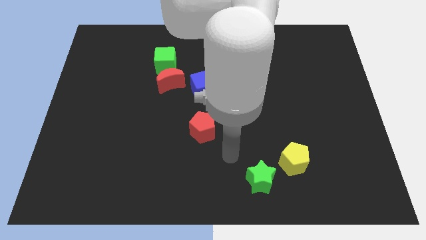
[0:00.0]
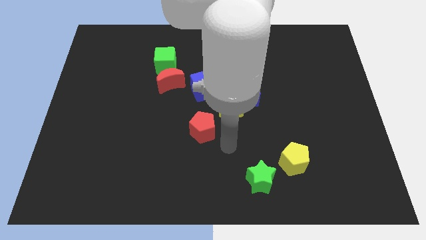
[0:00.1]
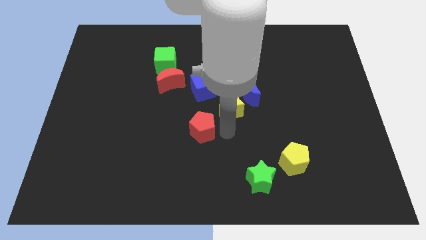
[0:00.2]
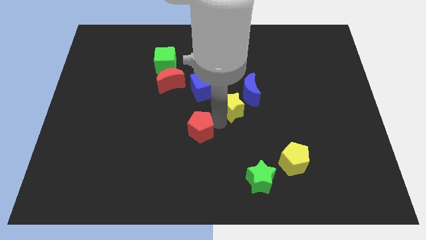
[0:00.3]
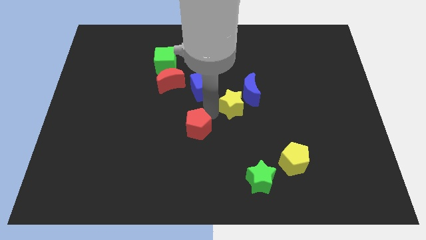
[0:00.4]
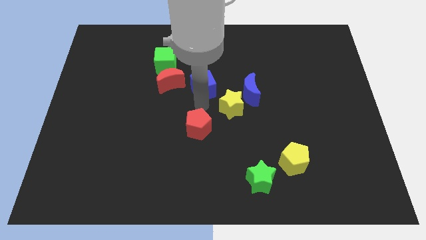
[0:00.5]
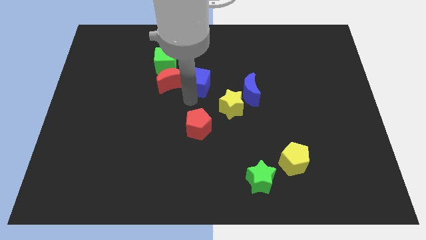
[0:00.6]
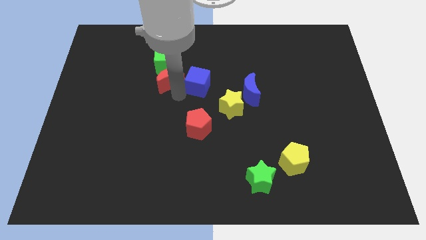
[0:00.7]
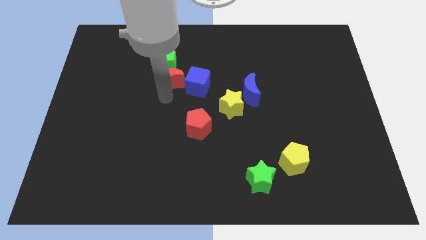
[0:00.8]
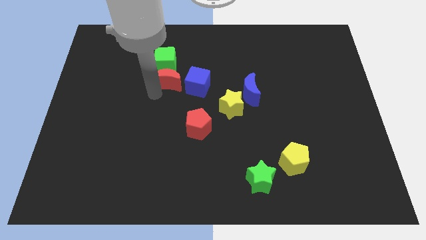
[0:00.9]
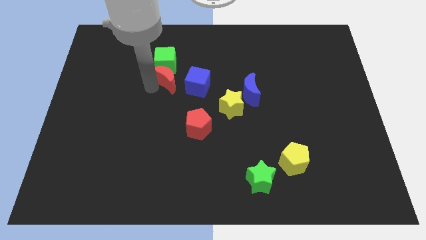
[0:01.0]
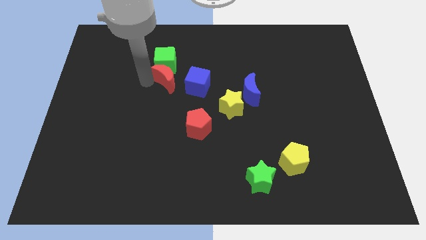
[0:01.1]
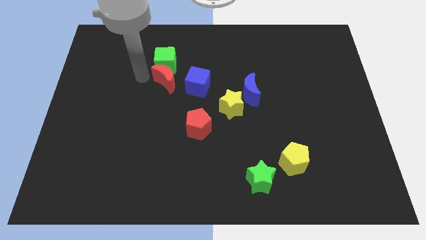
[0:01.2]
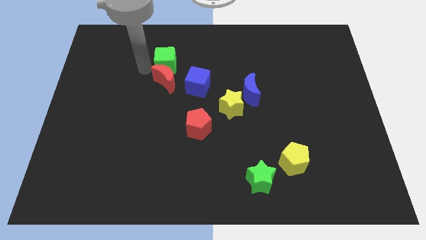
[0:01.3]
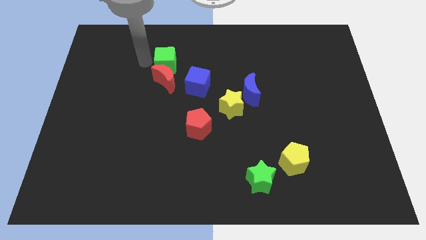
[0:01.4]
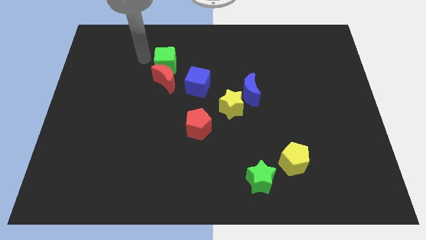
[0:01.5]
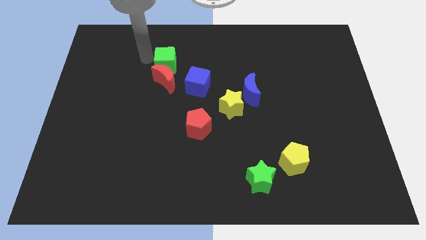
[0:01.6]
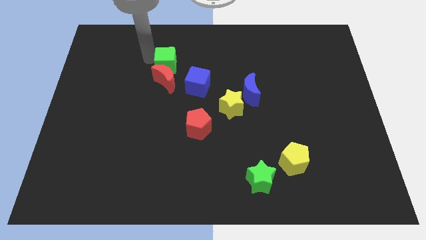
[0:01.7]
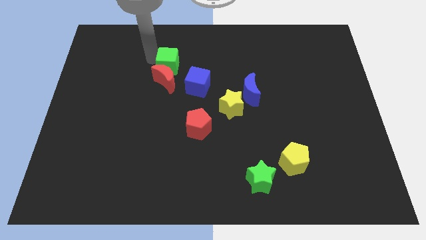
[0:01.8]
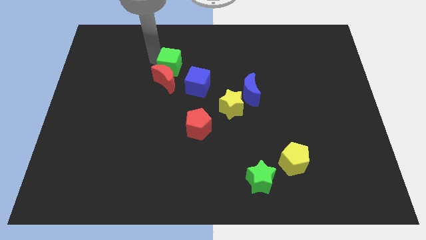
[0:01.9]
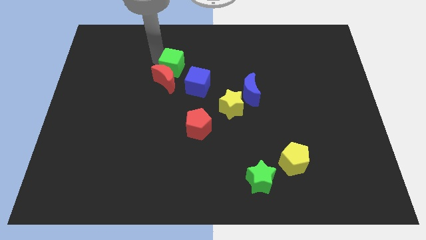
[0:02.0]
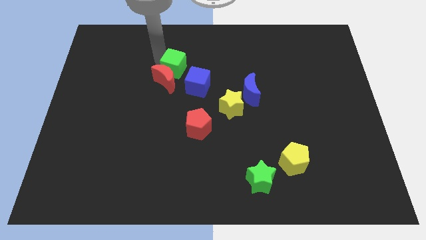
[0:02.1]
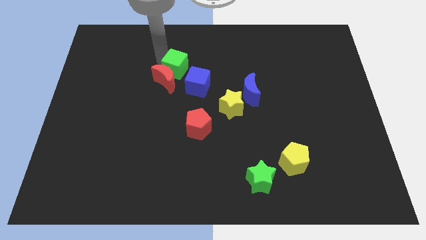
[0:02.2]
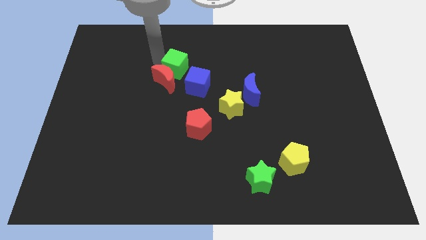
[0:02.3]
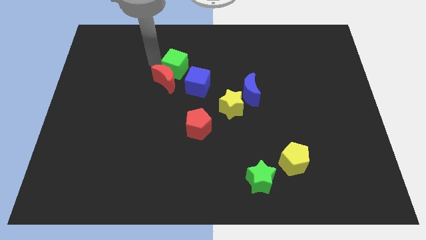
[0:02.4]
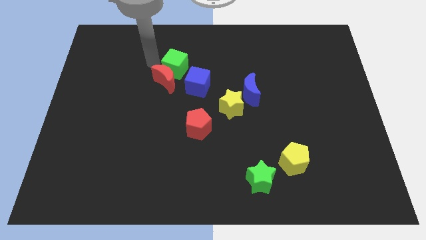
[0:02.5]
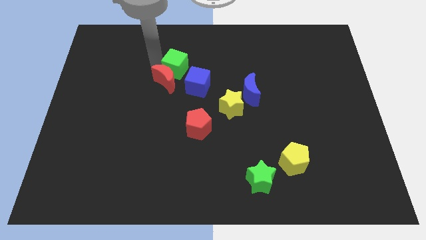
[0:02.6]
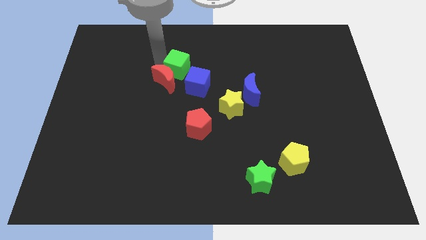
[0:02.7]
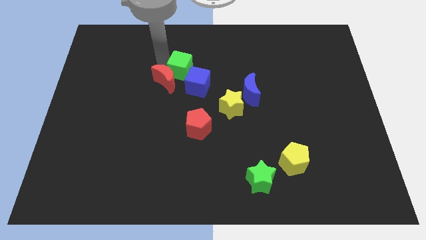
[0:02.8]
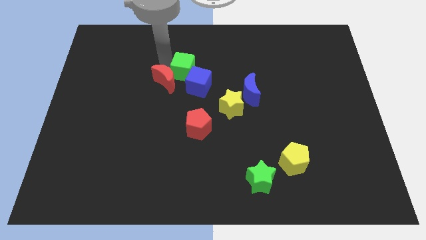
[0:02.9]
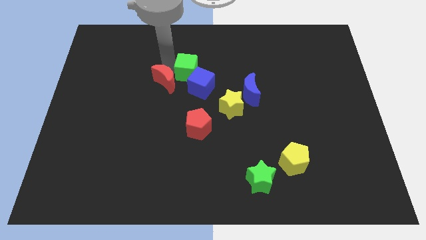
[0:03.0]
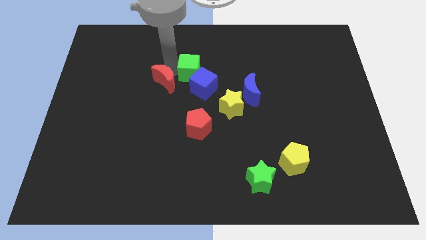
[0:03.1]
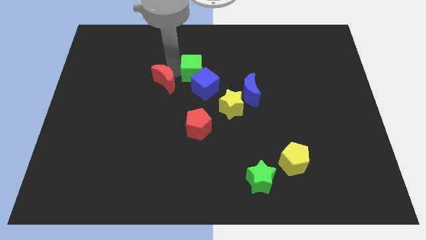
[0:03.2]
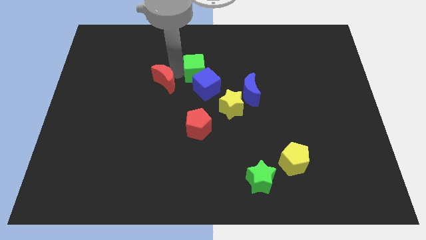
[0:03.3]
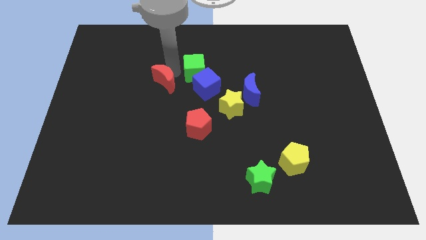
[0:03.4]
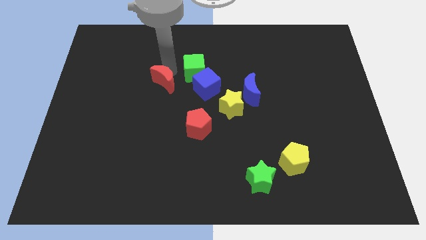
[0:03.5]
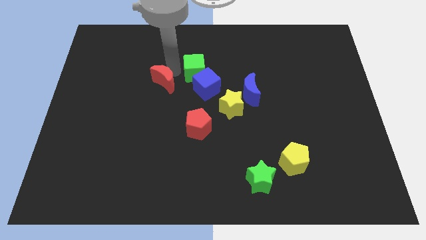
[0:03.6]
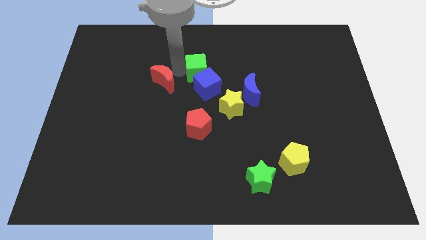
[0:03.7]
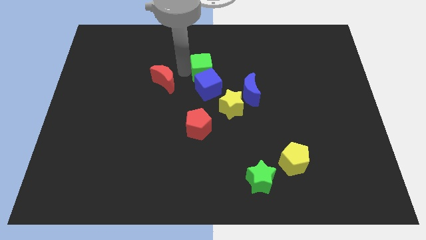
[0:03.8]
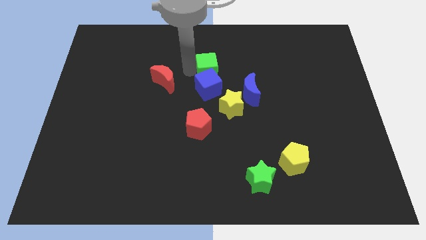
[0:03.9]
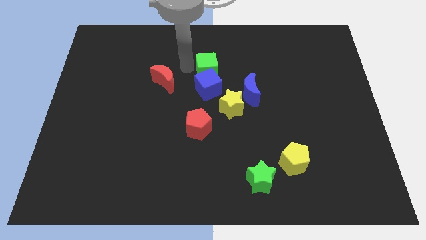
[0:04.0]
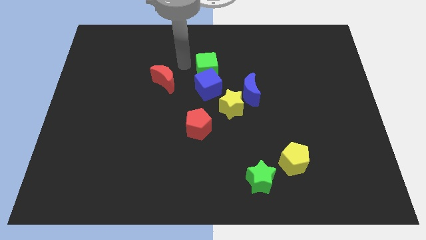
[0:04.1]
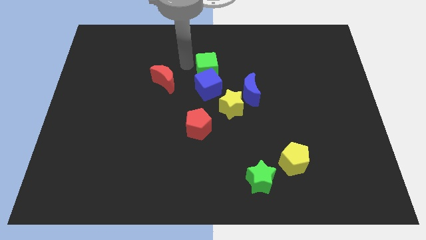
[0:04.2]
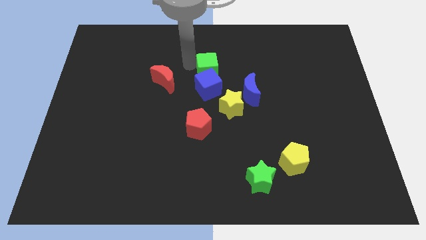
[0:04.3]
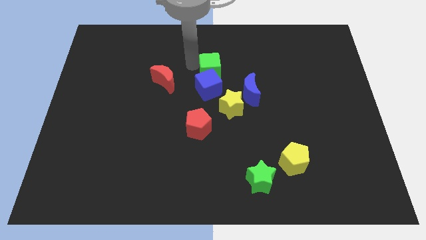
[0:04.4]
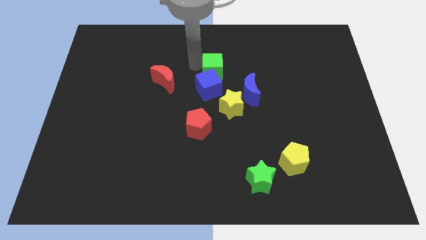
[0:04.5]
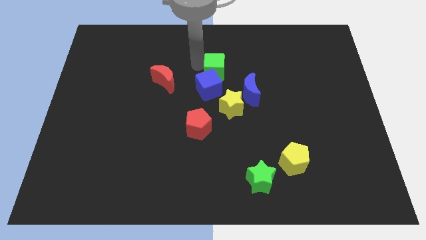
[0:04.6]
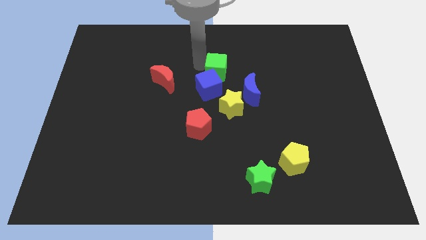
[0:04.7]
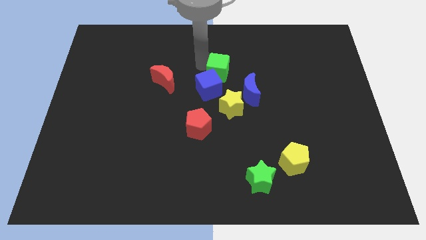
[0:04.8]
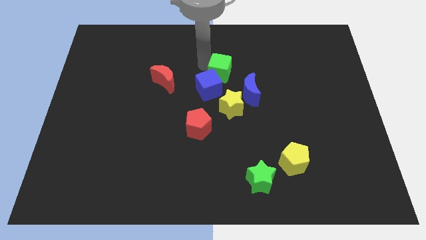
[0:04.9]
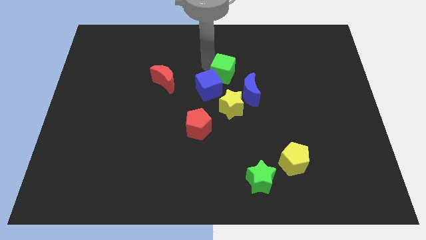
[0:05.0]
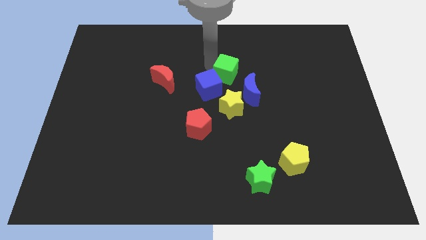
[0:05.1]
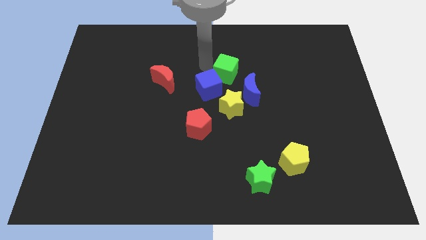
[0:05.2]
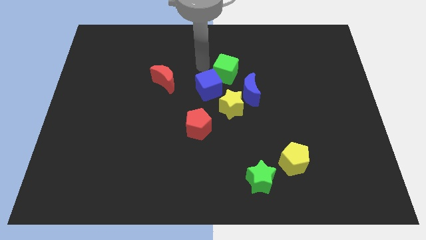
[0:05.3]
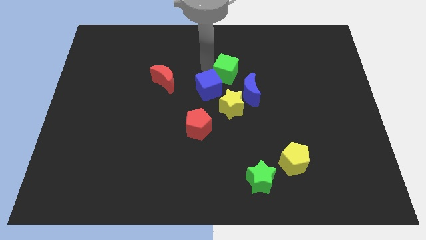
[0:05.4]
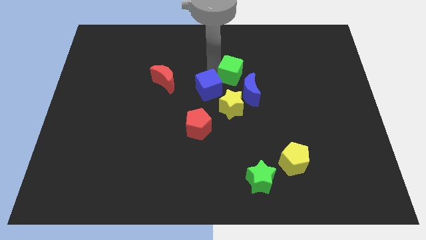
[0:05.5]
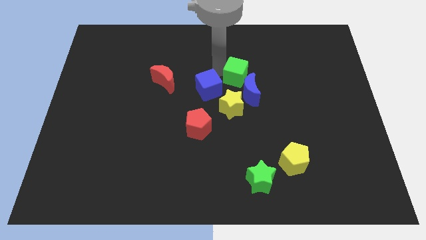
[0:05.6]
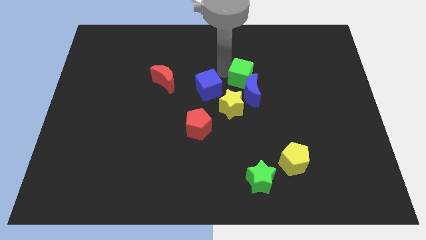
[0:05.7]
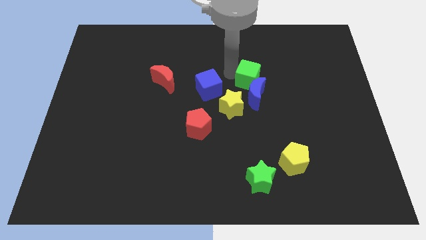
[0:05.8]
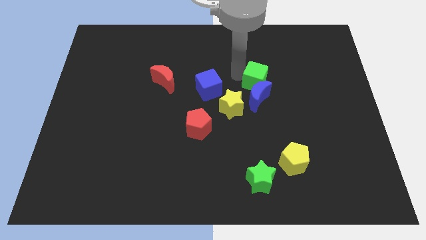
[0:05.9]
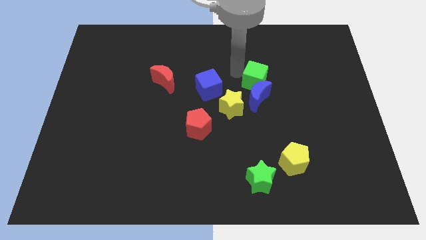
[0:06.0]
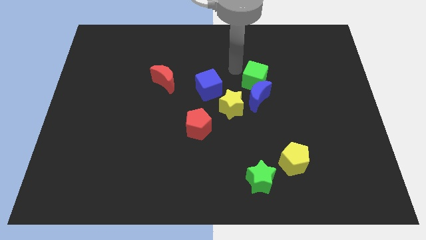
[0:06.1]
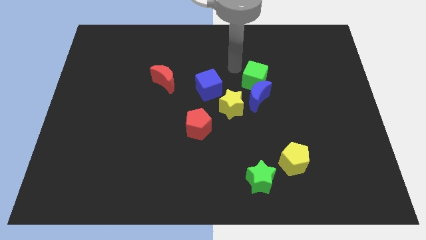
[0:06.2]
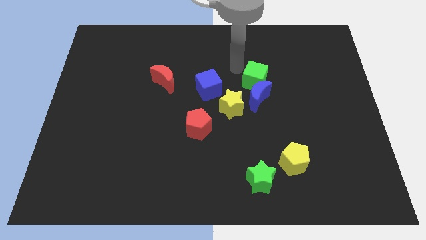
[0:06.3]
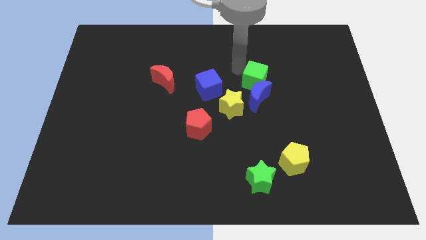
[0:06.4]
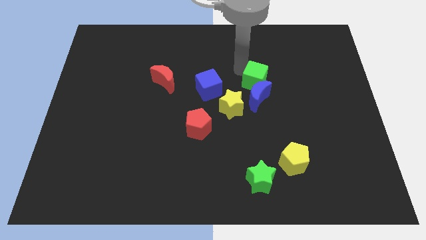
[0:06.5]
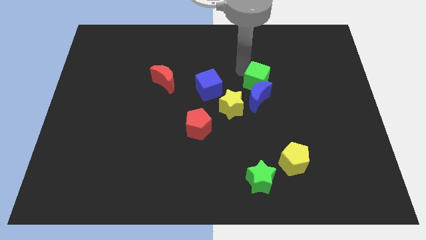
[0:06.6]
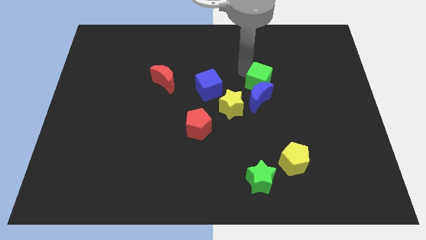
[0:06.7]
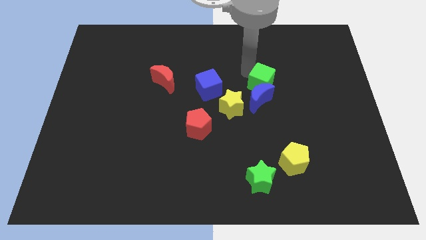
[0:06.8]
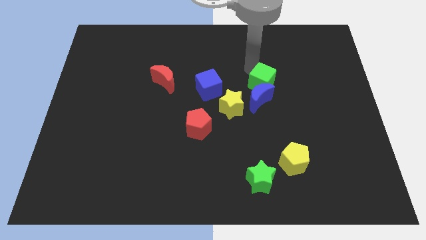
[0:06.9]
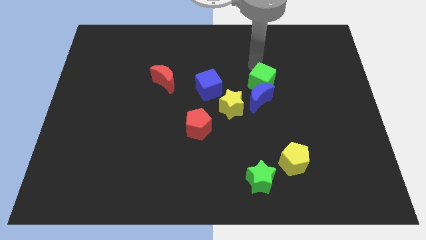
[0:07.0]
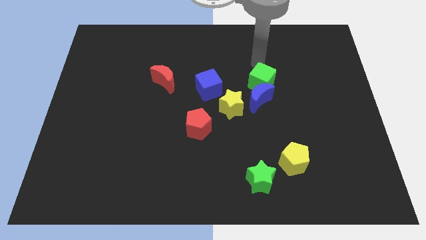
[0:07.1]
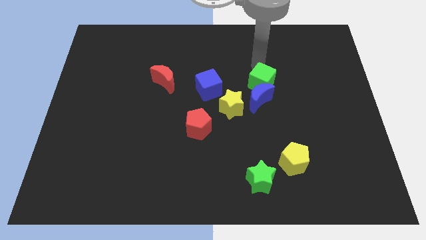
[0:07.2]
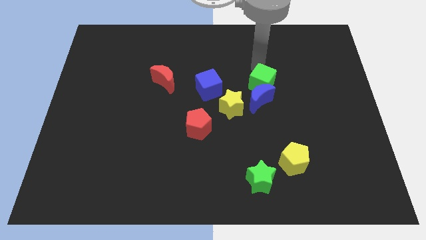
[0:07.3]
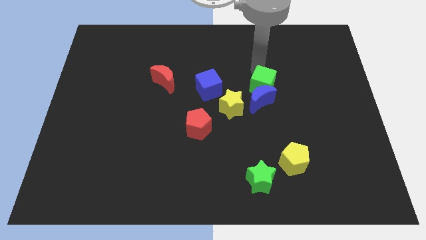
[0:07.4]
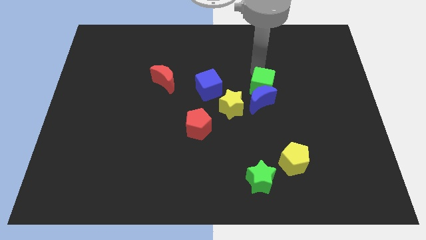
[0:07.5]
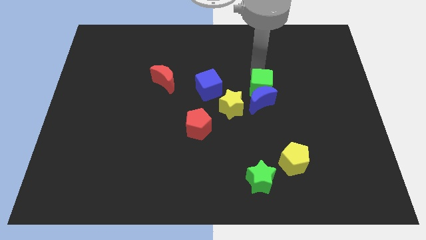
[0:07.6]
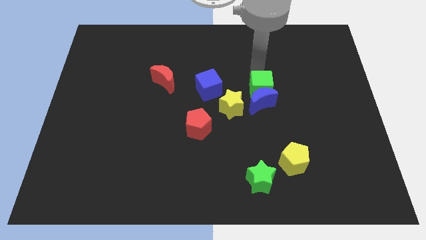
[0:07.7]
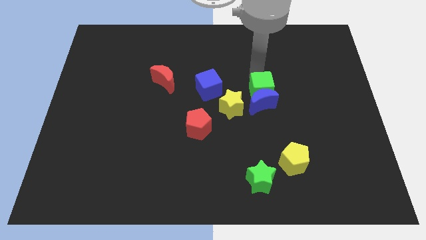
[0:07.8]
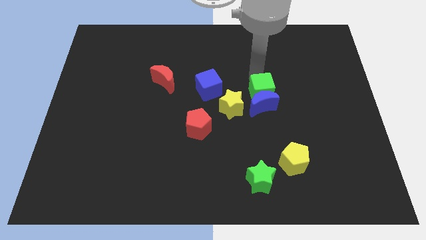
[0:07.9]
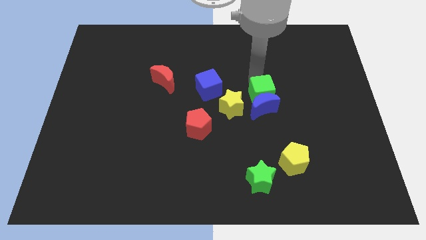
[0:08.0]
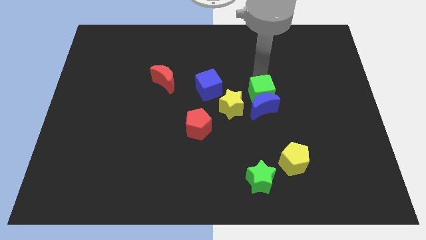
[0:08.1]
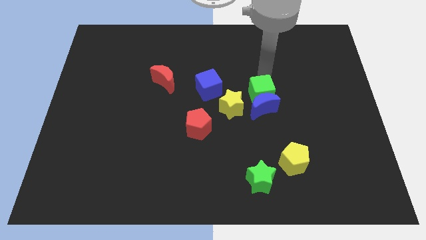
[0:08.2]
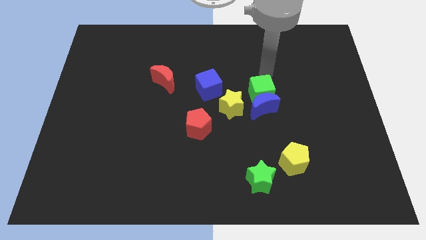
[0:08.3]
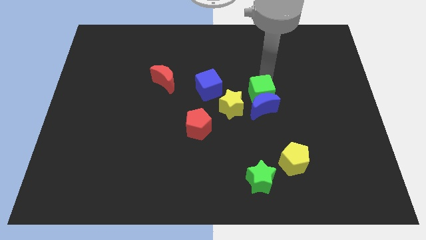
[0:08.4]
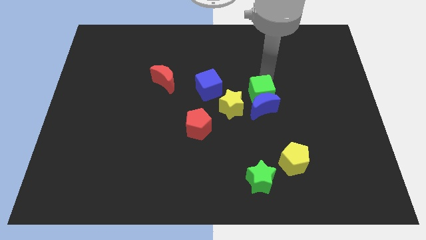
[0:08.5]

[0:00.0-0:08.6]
slide the green cube diagonally down and to the right
